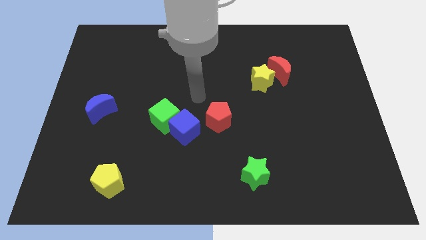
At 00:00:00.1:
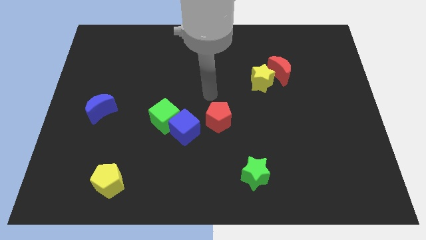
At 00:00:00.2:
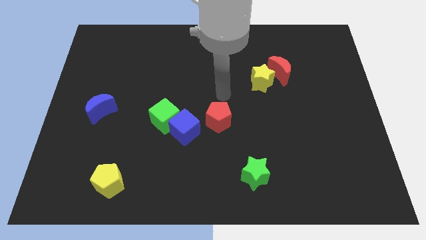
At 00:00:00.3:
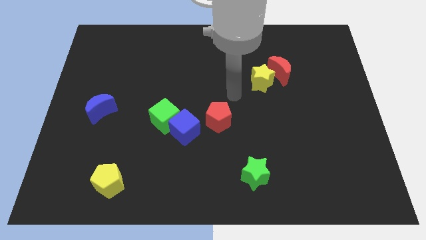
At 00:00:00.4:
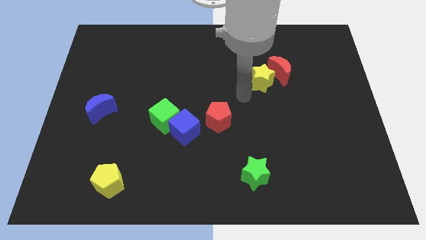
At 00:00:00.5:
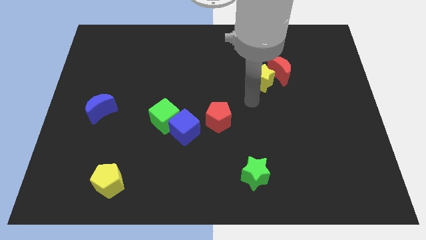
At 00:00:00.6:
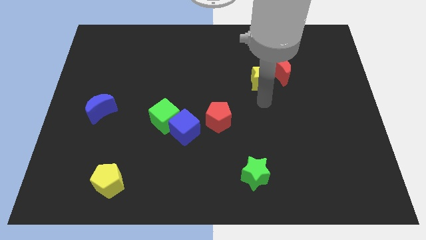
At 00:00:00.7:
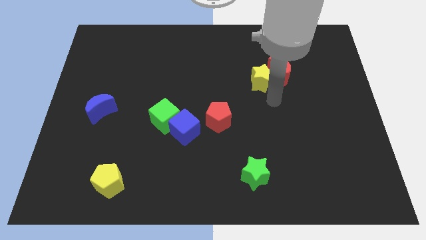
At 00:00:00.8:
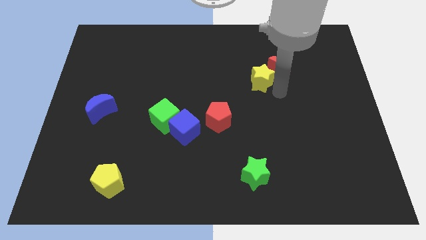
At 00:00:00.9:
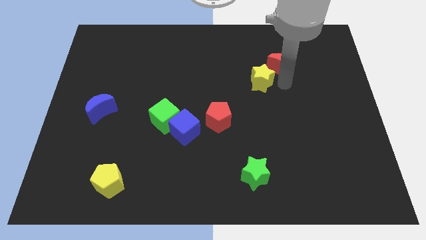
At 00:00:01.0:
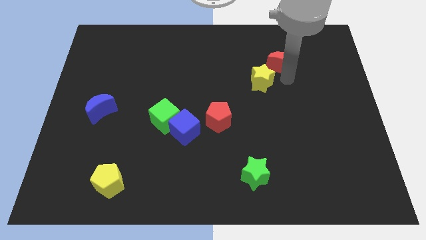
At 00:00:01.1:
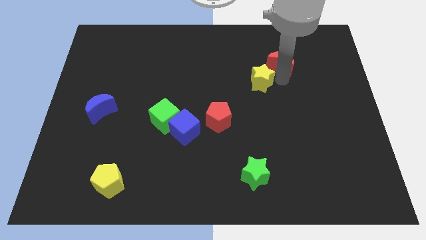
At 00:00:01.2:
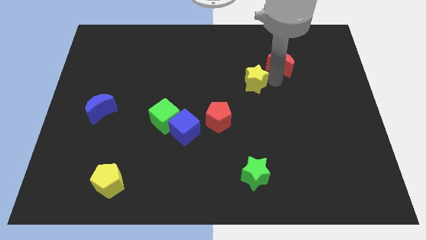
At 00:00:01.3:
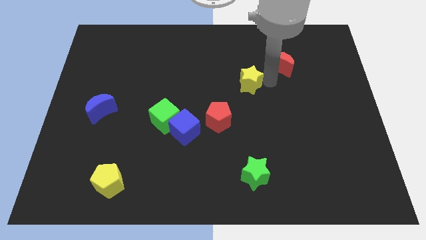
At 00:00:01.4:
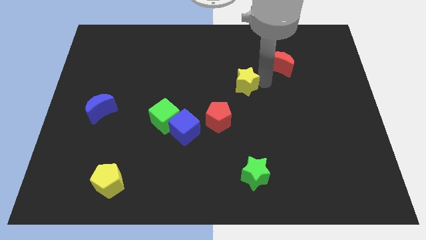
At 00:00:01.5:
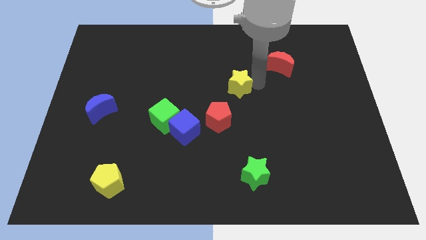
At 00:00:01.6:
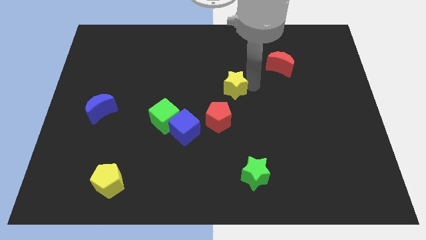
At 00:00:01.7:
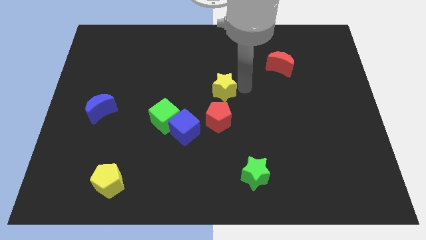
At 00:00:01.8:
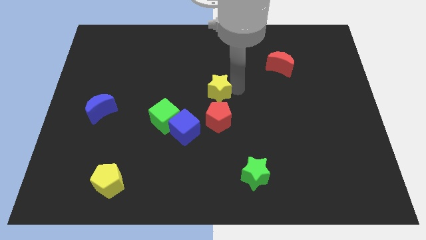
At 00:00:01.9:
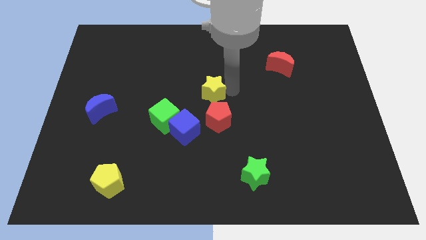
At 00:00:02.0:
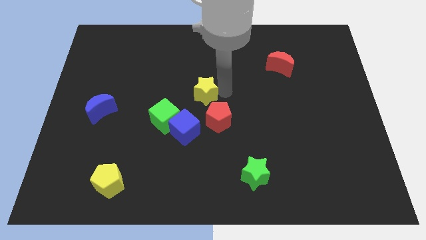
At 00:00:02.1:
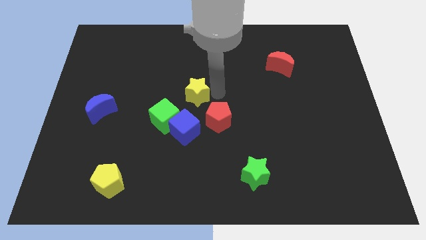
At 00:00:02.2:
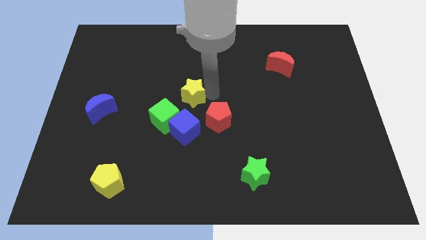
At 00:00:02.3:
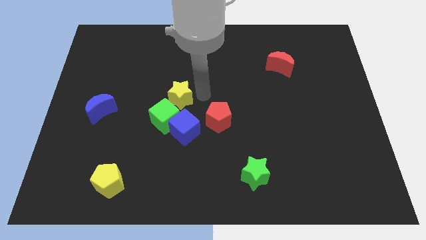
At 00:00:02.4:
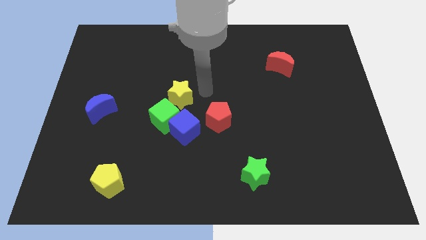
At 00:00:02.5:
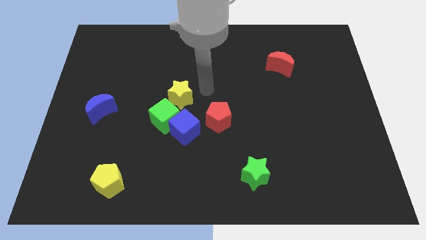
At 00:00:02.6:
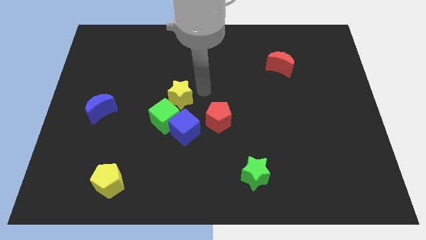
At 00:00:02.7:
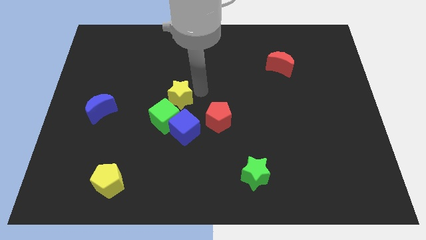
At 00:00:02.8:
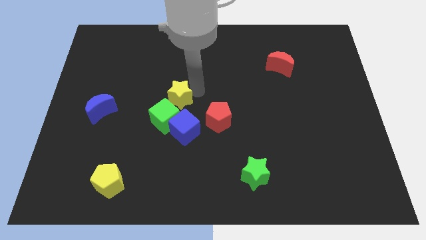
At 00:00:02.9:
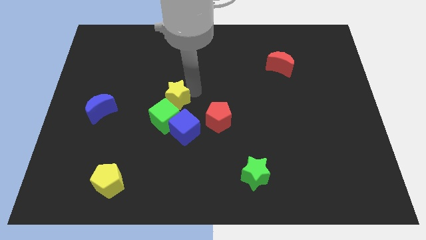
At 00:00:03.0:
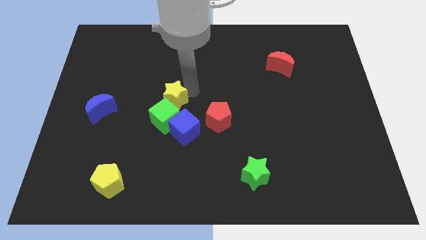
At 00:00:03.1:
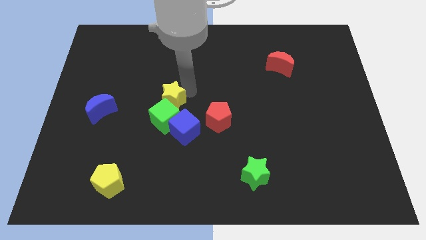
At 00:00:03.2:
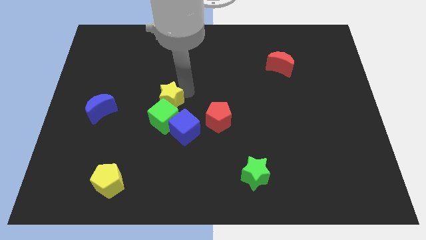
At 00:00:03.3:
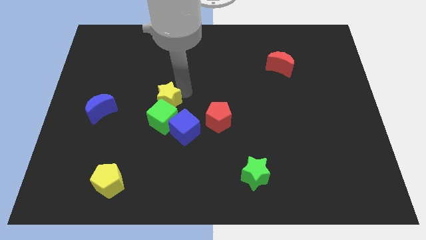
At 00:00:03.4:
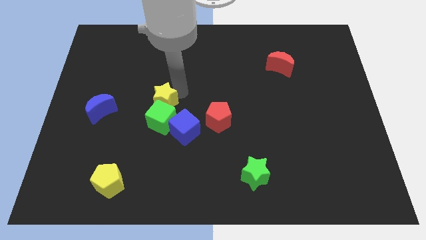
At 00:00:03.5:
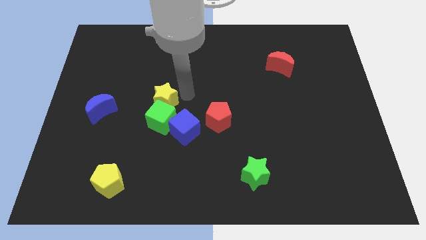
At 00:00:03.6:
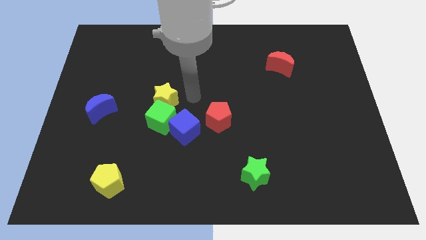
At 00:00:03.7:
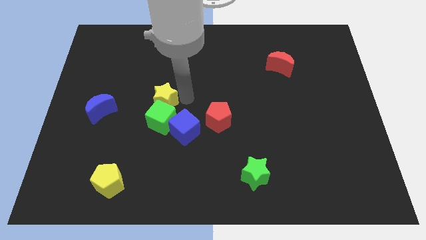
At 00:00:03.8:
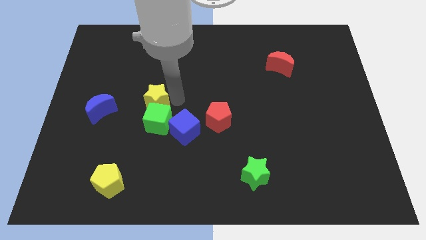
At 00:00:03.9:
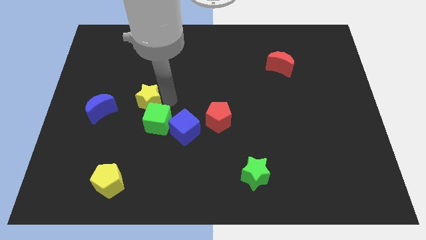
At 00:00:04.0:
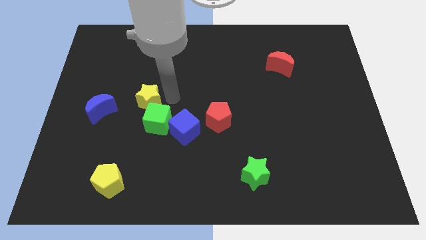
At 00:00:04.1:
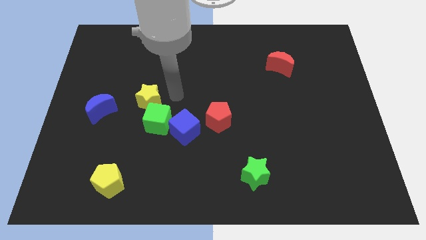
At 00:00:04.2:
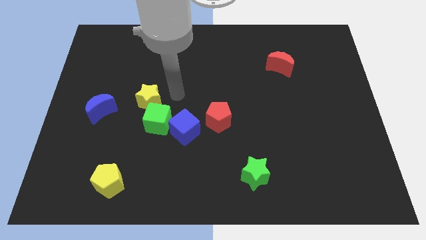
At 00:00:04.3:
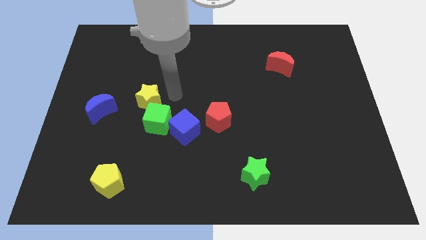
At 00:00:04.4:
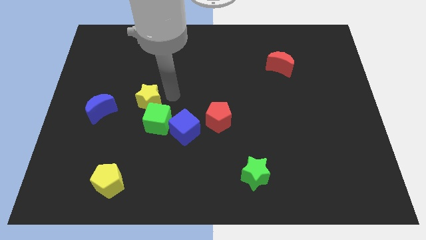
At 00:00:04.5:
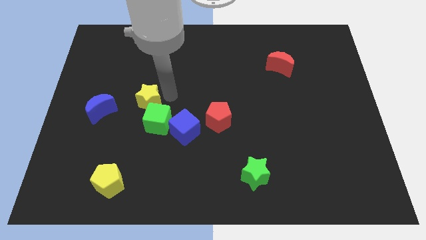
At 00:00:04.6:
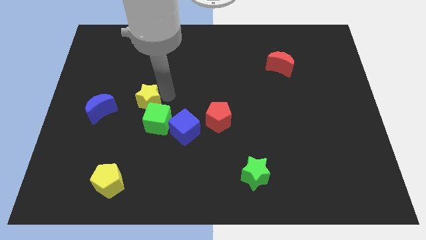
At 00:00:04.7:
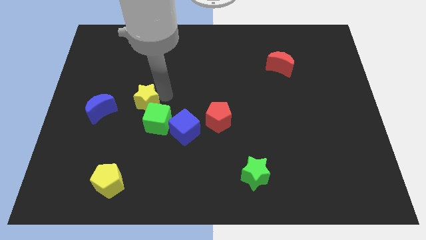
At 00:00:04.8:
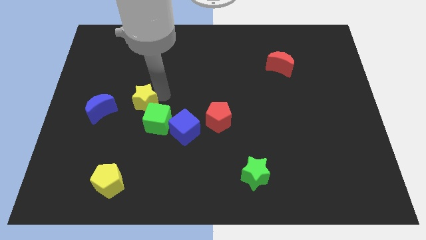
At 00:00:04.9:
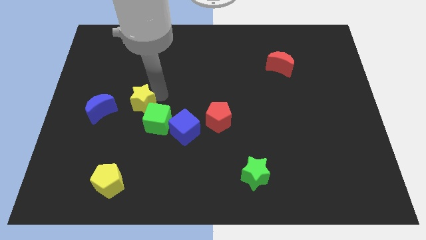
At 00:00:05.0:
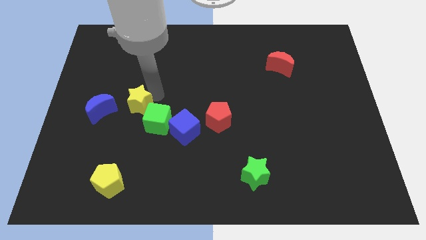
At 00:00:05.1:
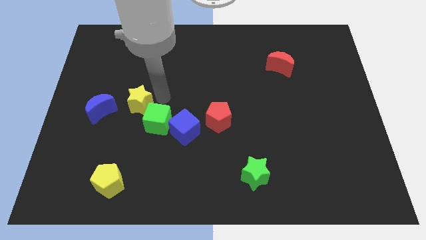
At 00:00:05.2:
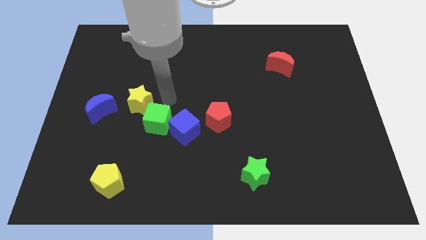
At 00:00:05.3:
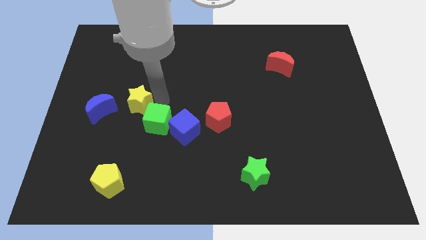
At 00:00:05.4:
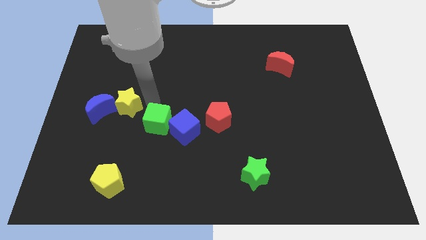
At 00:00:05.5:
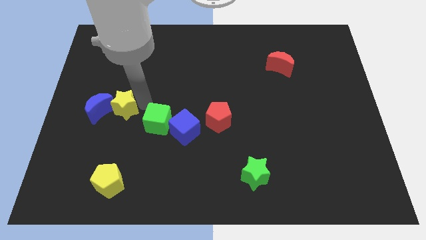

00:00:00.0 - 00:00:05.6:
move the yellow star next to the blue moon

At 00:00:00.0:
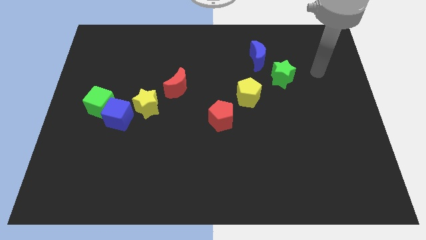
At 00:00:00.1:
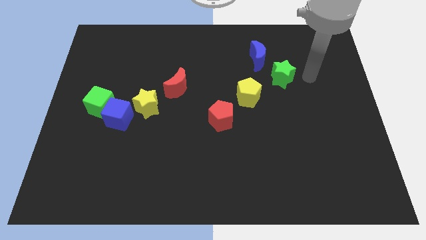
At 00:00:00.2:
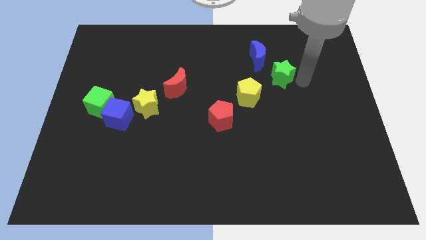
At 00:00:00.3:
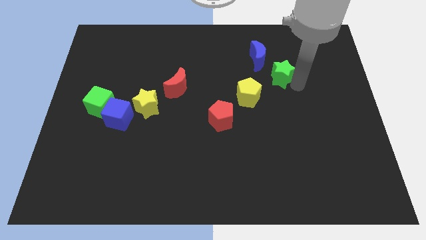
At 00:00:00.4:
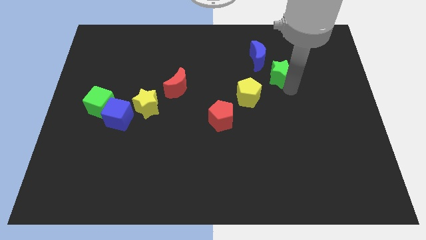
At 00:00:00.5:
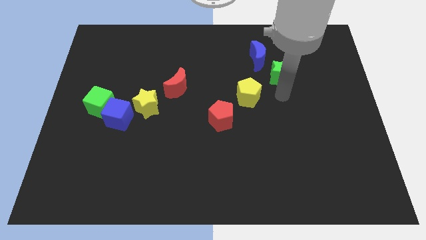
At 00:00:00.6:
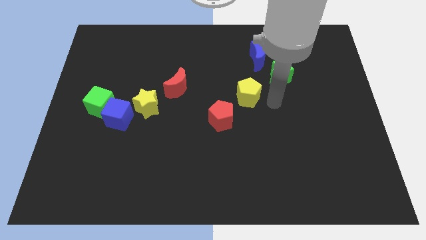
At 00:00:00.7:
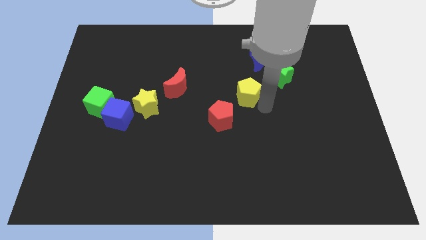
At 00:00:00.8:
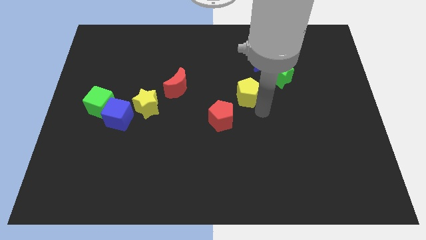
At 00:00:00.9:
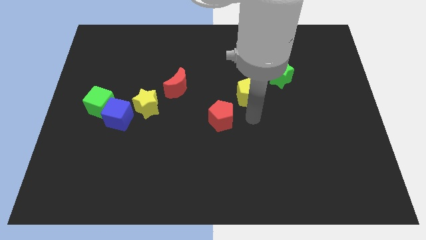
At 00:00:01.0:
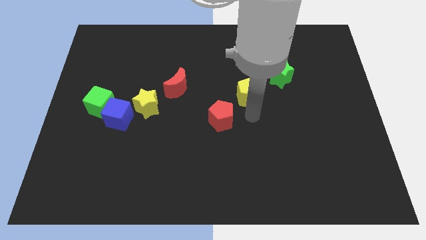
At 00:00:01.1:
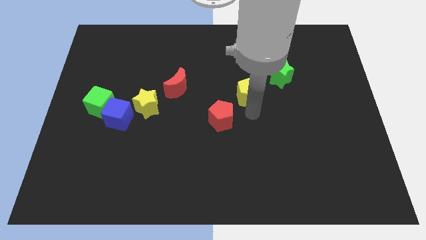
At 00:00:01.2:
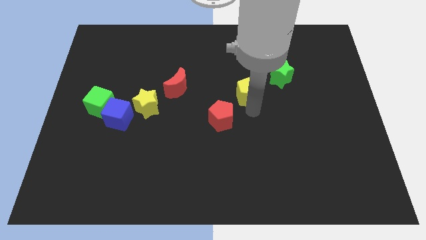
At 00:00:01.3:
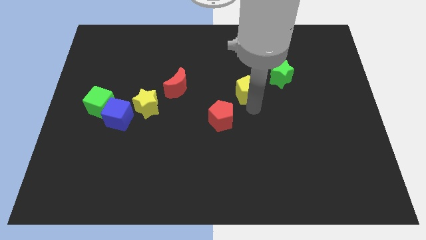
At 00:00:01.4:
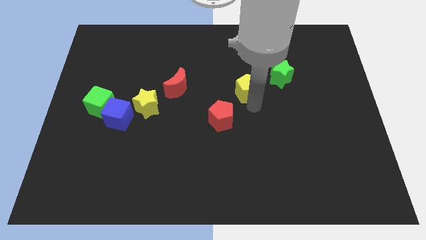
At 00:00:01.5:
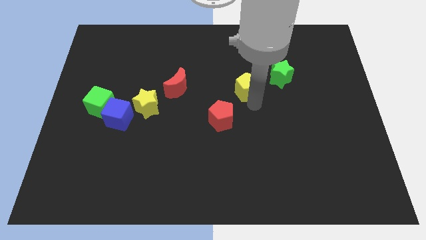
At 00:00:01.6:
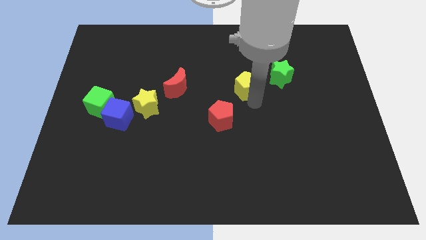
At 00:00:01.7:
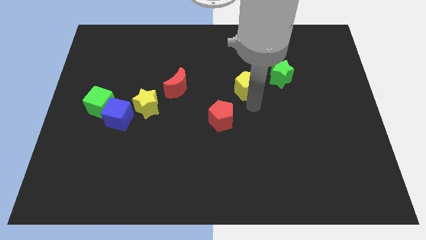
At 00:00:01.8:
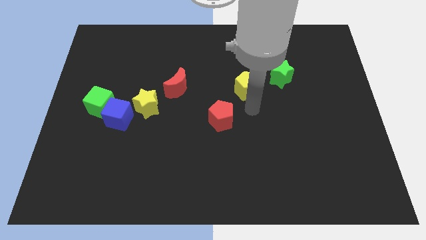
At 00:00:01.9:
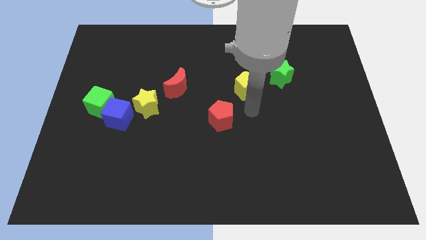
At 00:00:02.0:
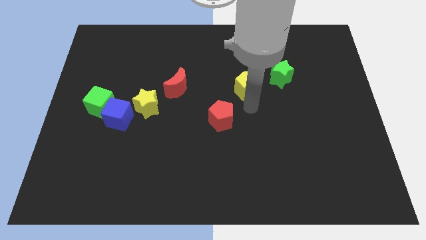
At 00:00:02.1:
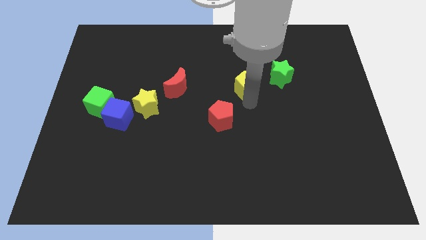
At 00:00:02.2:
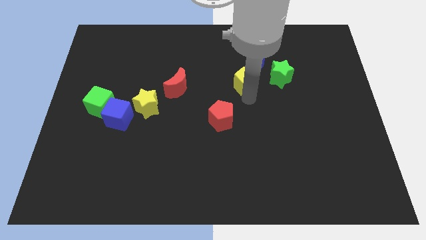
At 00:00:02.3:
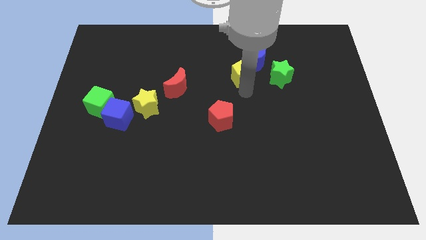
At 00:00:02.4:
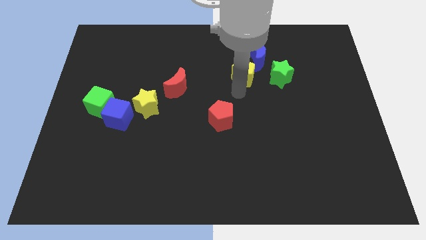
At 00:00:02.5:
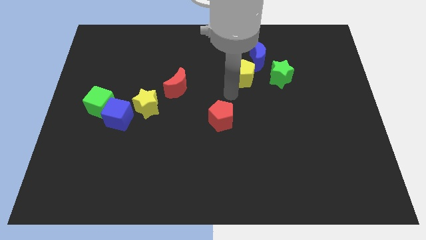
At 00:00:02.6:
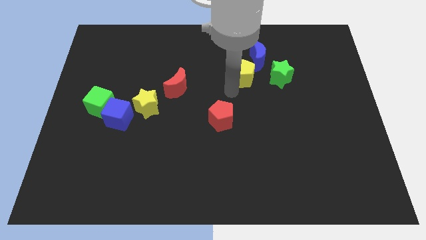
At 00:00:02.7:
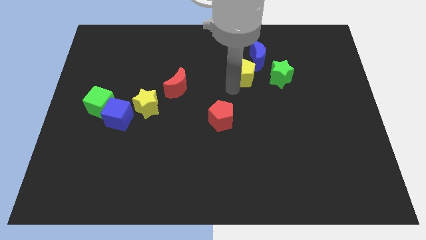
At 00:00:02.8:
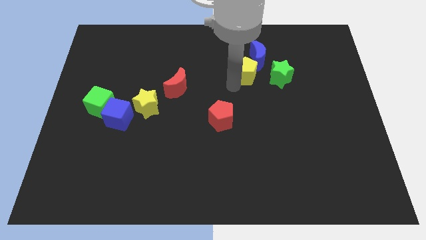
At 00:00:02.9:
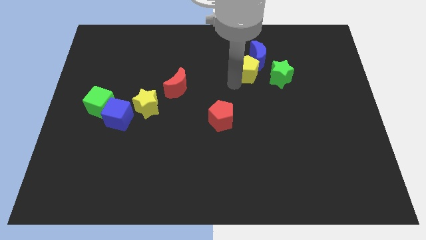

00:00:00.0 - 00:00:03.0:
put the yellow pentagon close to the blue moon
